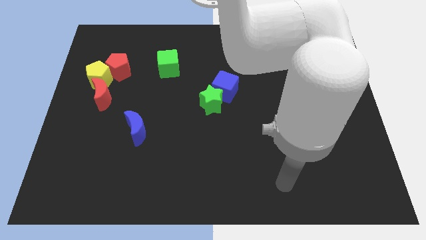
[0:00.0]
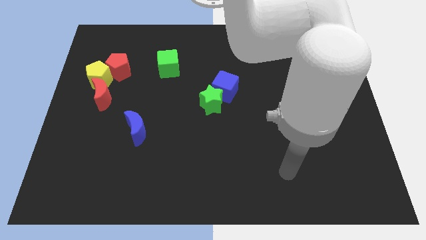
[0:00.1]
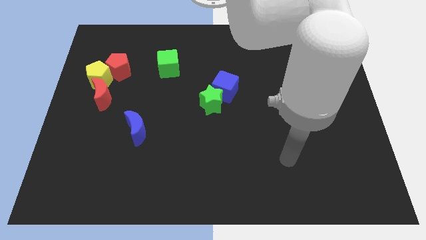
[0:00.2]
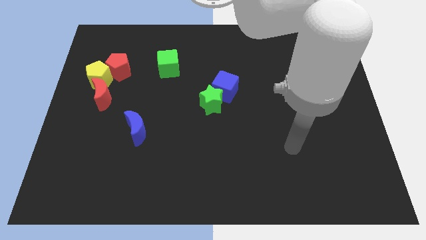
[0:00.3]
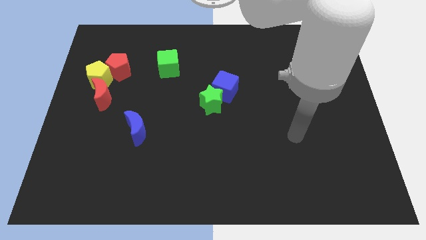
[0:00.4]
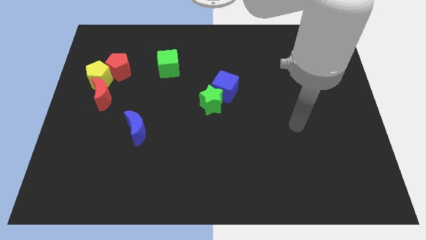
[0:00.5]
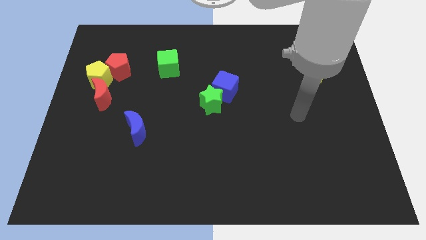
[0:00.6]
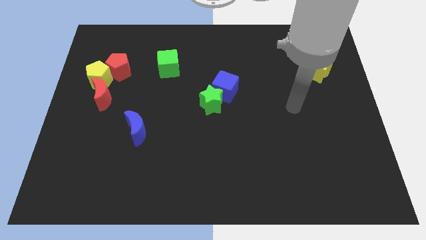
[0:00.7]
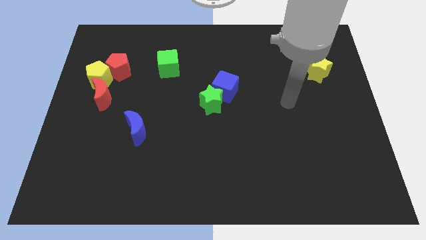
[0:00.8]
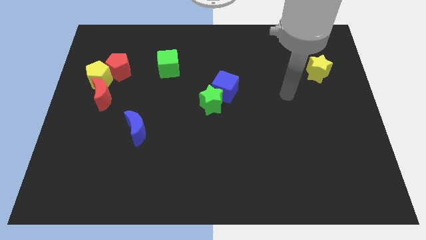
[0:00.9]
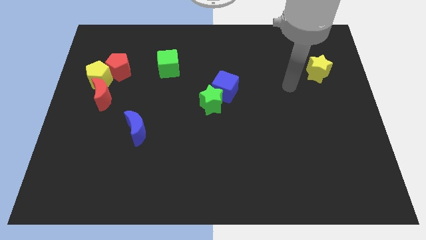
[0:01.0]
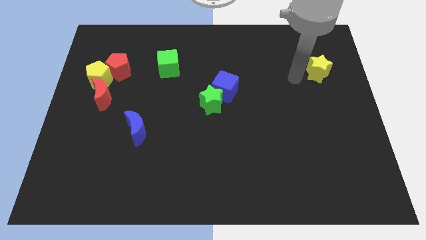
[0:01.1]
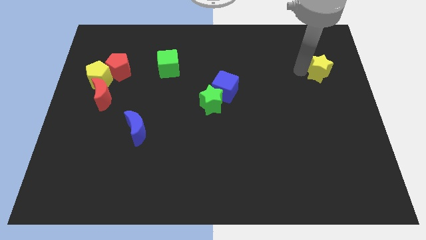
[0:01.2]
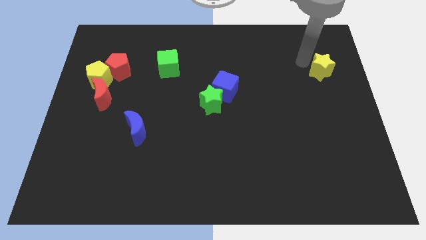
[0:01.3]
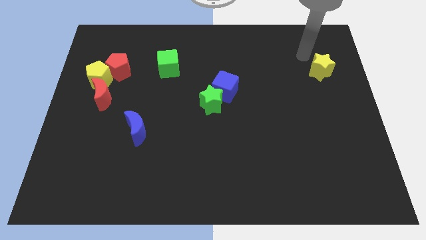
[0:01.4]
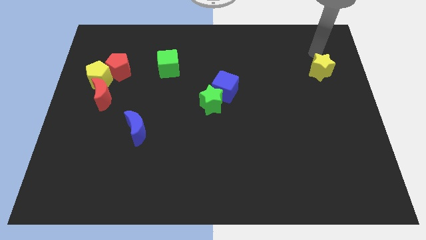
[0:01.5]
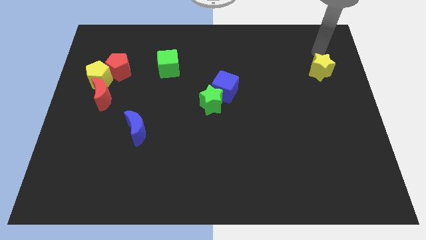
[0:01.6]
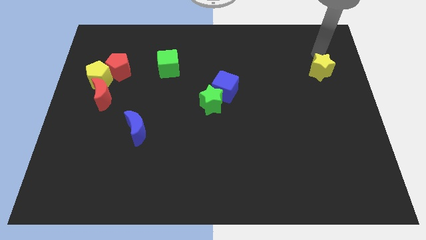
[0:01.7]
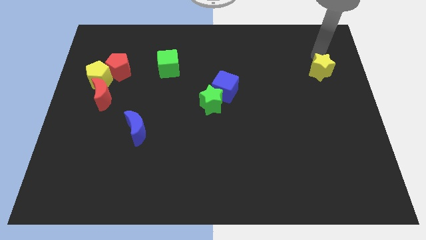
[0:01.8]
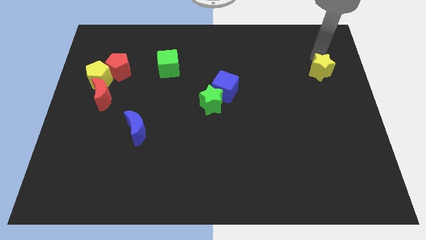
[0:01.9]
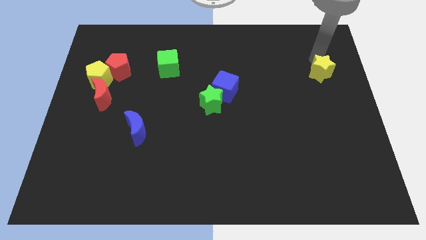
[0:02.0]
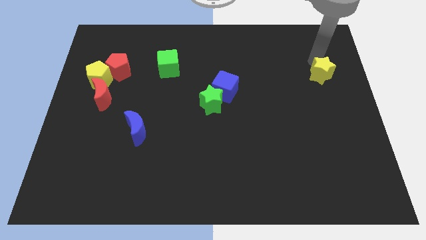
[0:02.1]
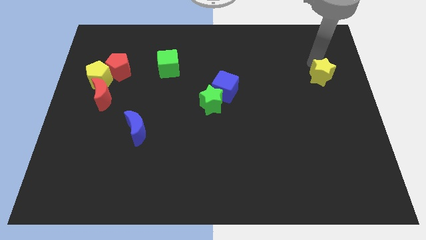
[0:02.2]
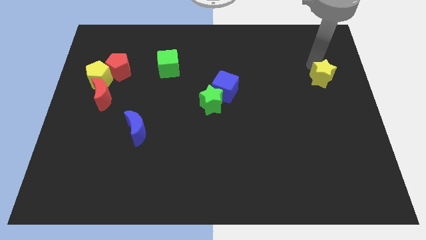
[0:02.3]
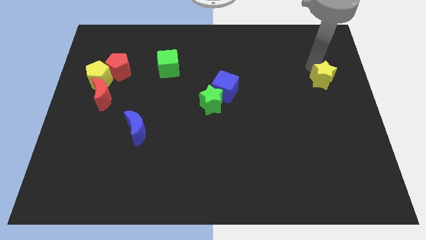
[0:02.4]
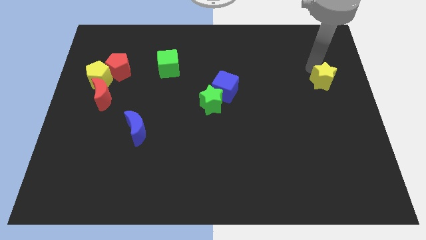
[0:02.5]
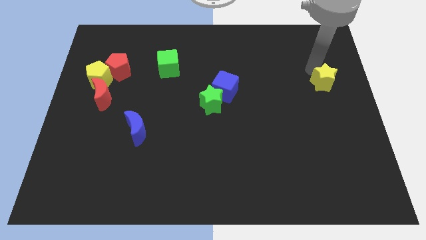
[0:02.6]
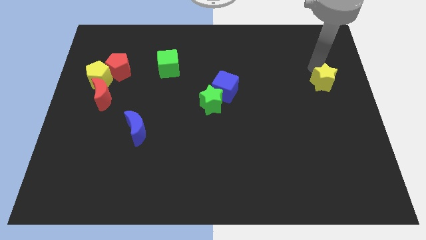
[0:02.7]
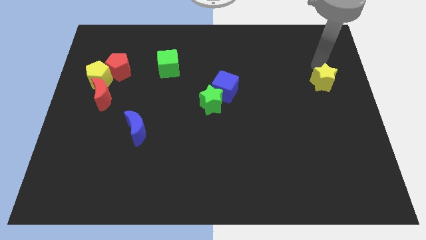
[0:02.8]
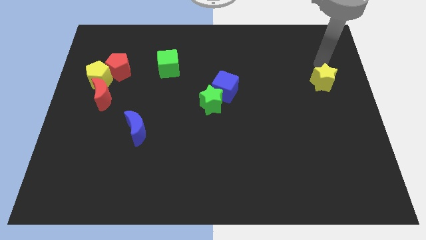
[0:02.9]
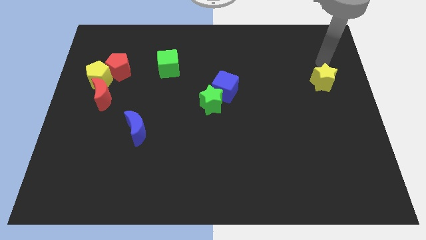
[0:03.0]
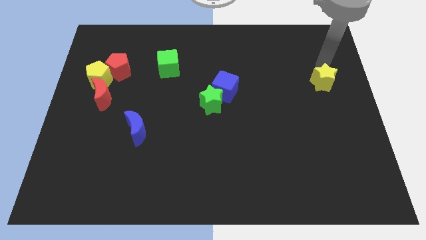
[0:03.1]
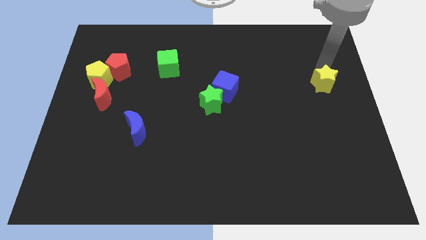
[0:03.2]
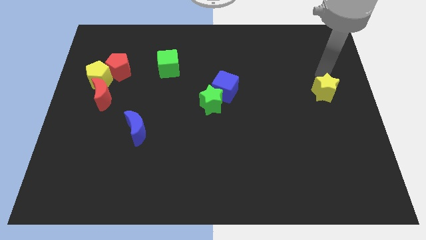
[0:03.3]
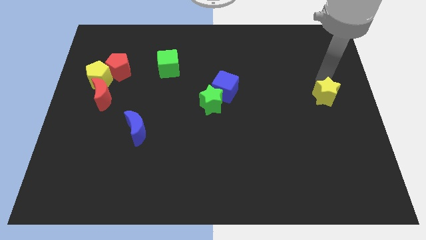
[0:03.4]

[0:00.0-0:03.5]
move the yellow star a little bit downwards

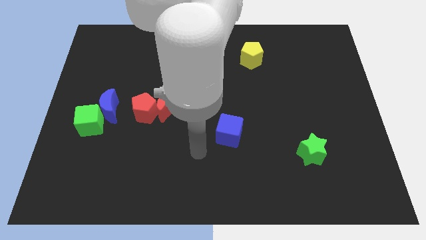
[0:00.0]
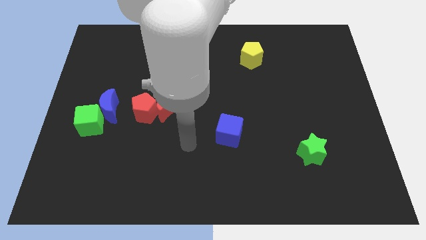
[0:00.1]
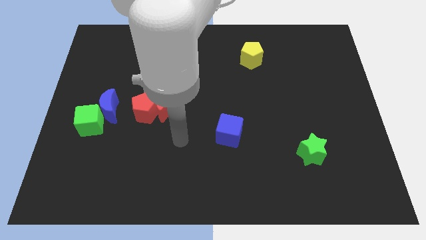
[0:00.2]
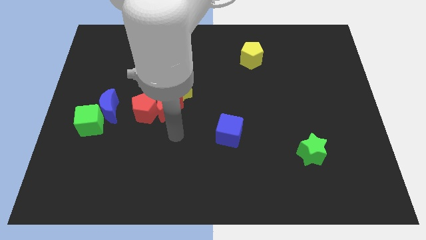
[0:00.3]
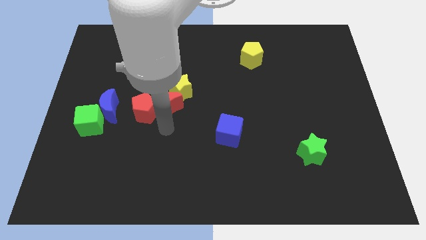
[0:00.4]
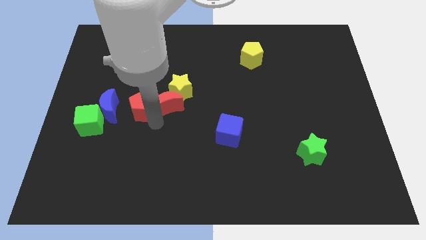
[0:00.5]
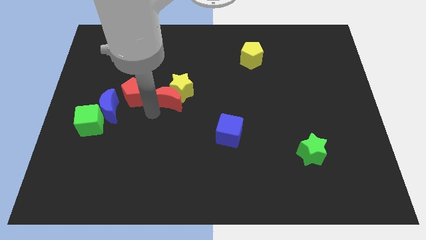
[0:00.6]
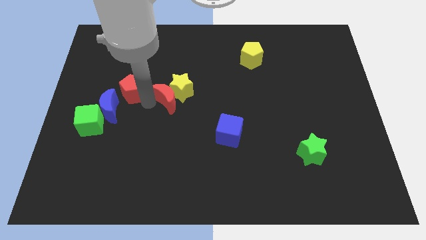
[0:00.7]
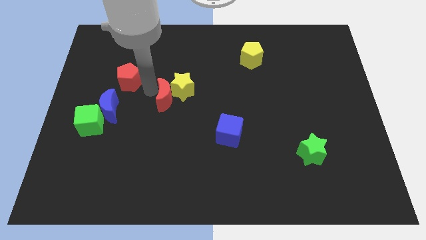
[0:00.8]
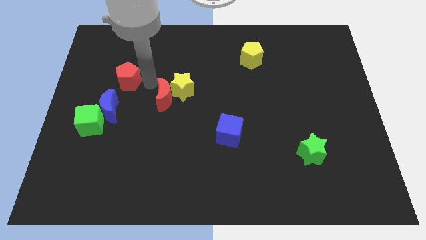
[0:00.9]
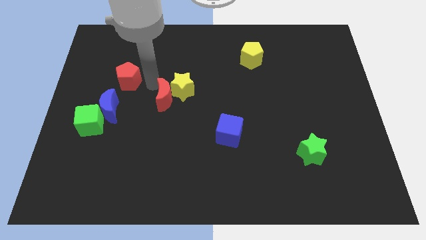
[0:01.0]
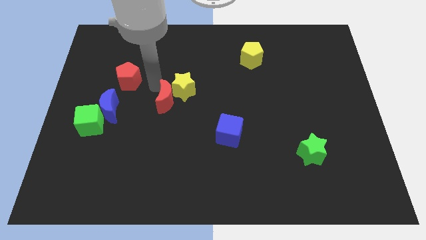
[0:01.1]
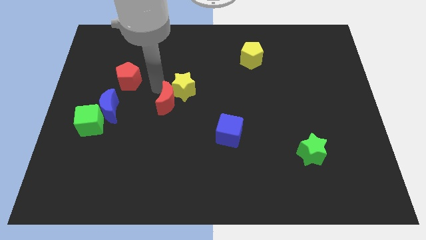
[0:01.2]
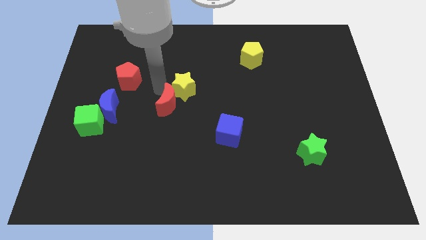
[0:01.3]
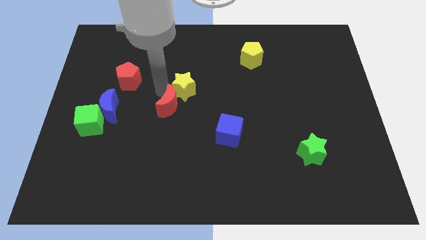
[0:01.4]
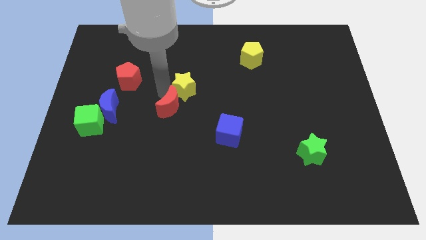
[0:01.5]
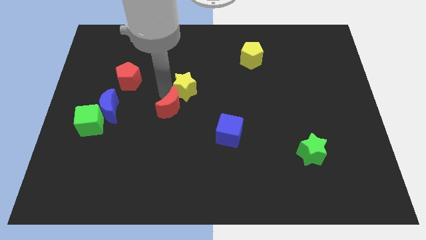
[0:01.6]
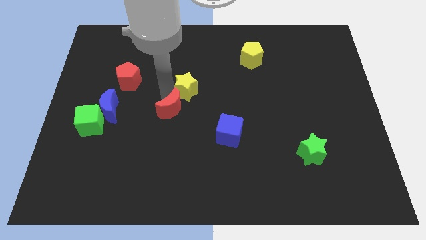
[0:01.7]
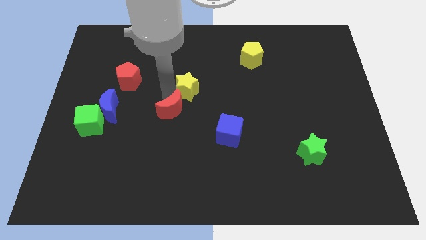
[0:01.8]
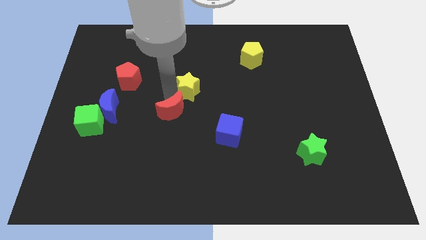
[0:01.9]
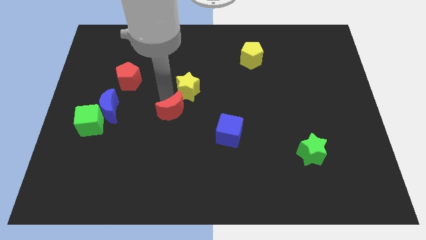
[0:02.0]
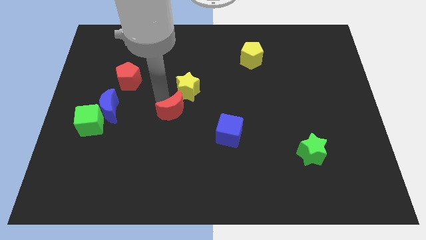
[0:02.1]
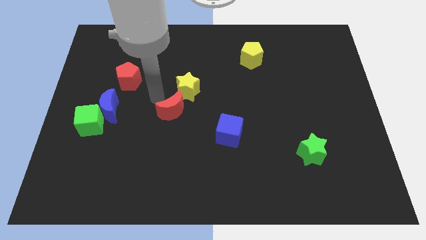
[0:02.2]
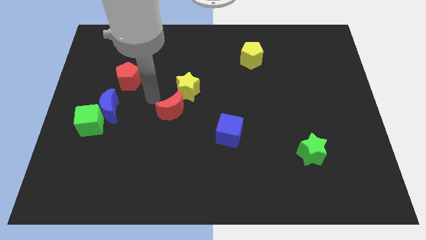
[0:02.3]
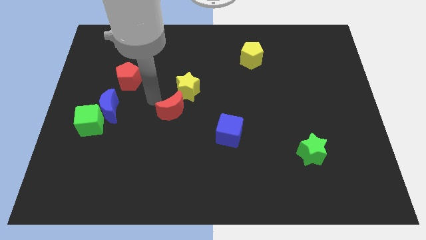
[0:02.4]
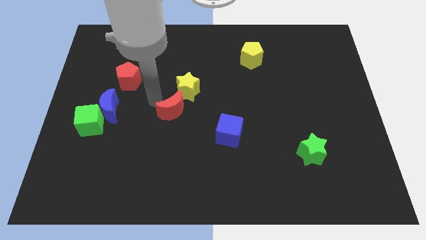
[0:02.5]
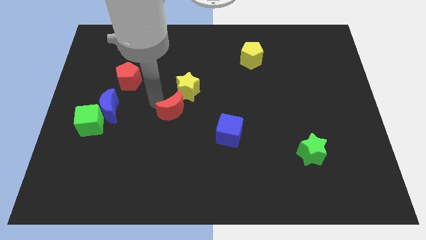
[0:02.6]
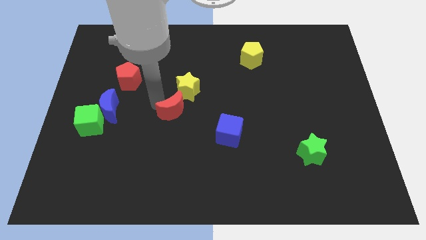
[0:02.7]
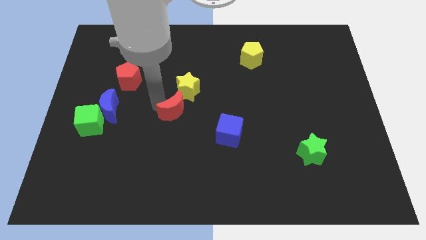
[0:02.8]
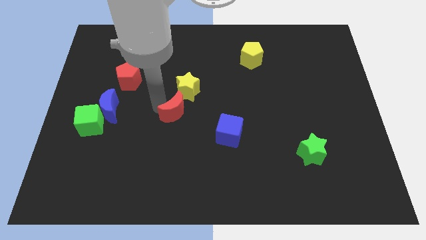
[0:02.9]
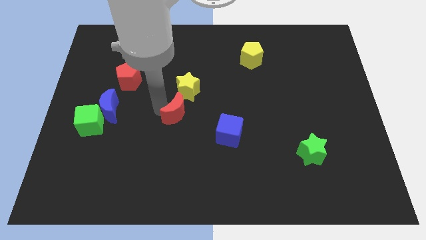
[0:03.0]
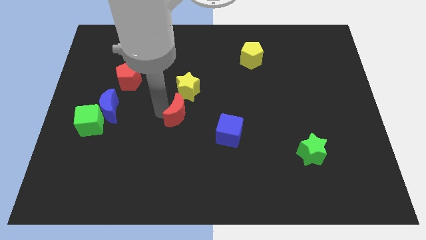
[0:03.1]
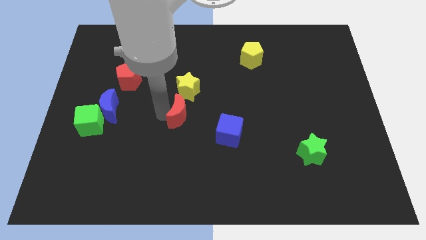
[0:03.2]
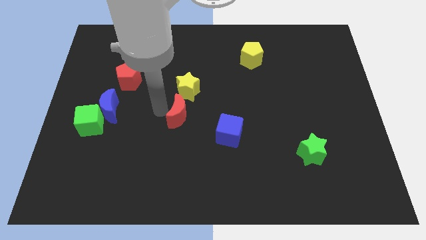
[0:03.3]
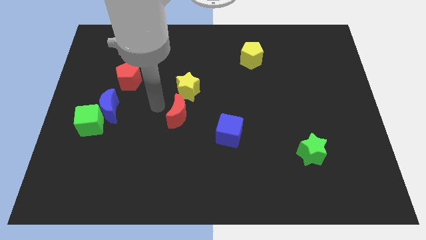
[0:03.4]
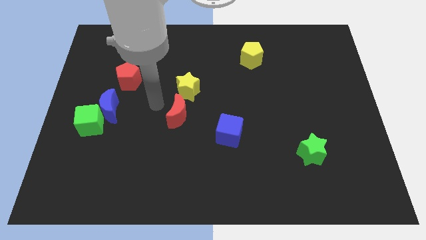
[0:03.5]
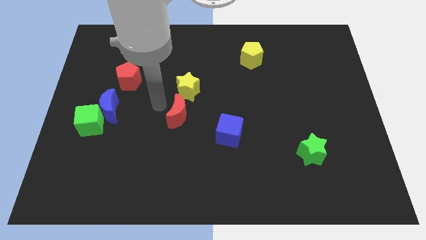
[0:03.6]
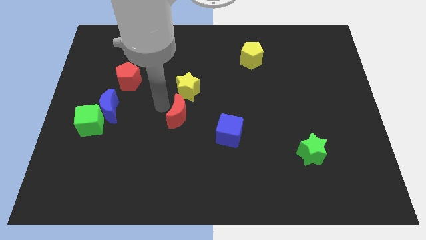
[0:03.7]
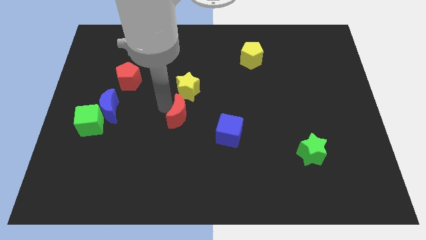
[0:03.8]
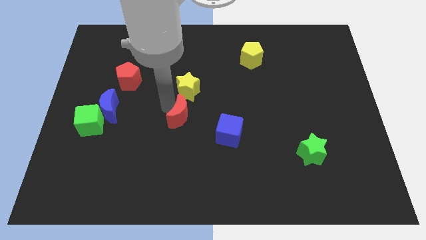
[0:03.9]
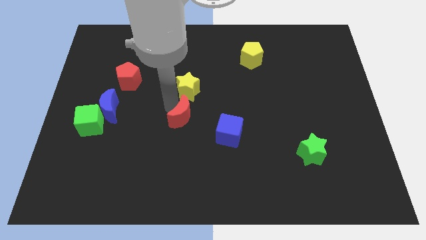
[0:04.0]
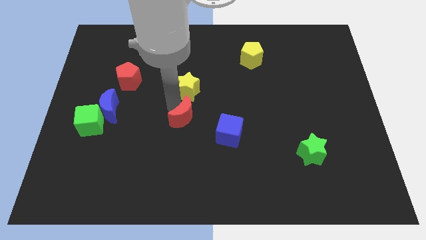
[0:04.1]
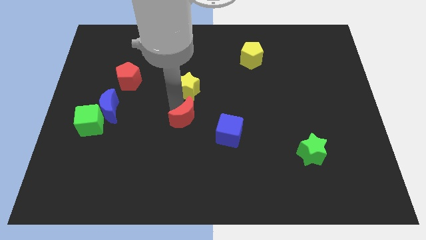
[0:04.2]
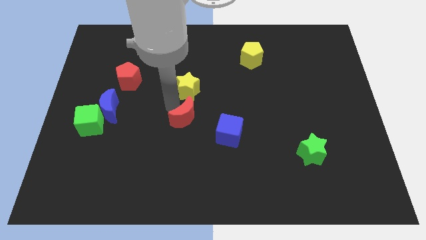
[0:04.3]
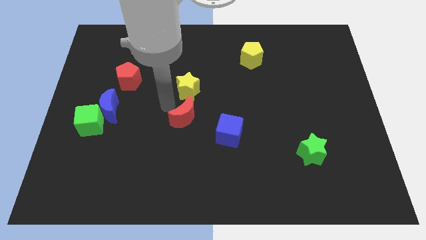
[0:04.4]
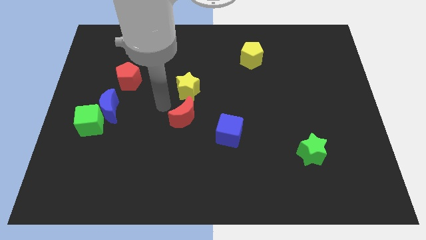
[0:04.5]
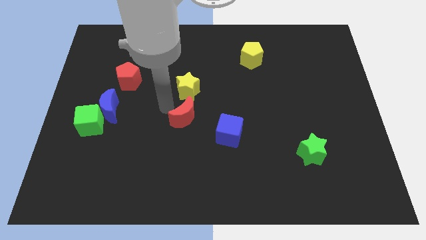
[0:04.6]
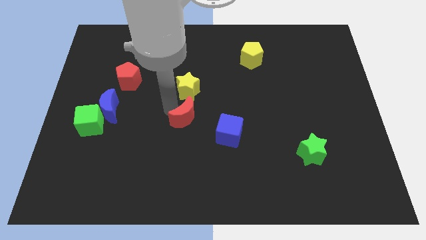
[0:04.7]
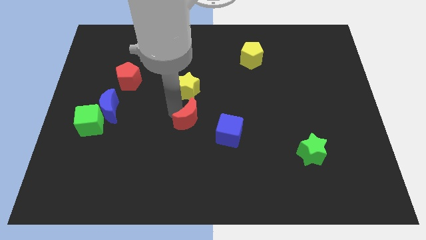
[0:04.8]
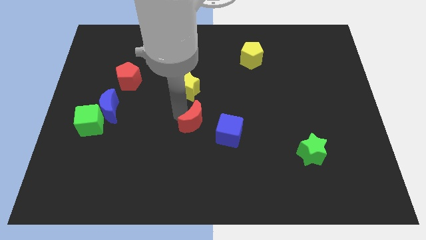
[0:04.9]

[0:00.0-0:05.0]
push the red moon diagonally down and to the right slightly
